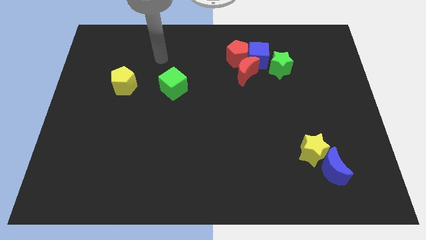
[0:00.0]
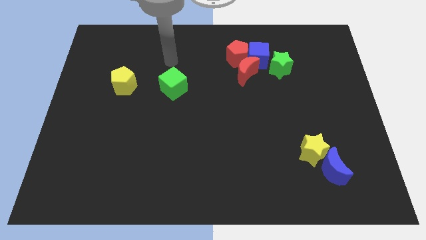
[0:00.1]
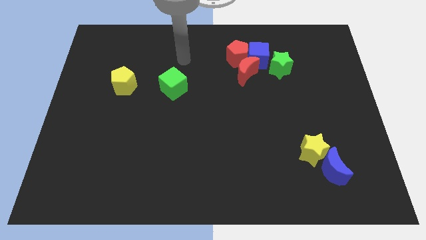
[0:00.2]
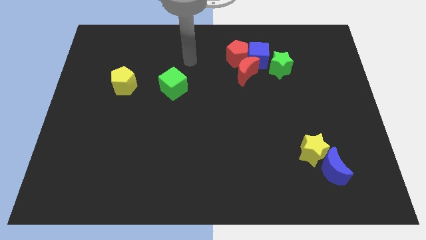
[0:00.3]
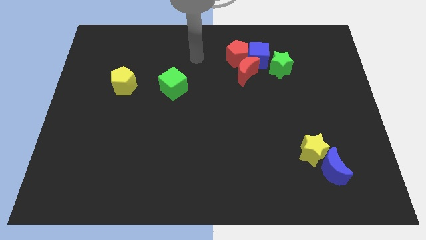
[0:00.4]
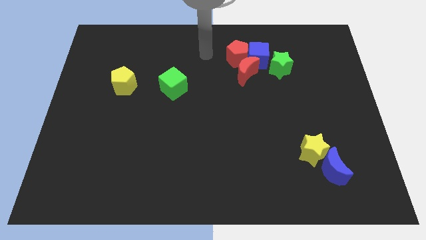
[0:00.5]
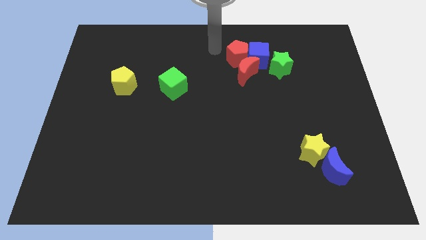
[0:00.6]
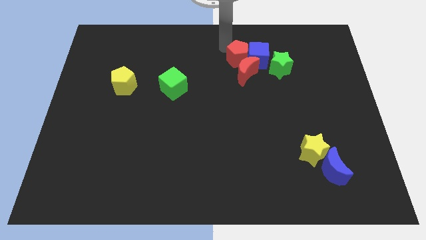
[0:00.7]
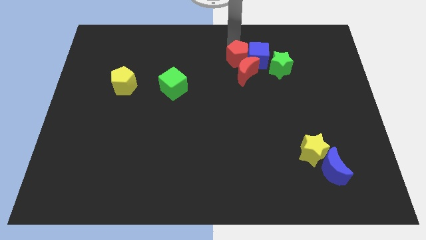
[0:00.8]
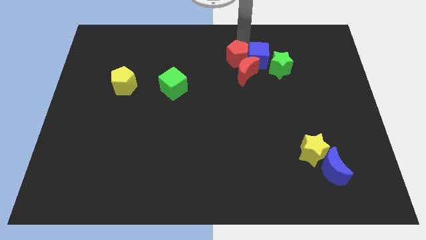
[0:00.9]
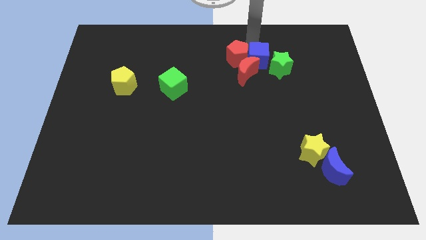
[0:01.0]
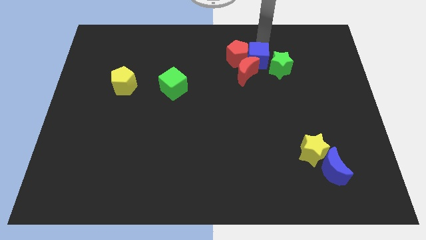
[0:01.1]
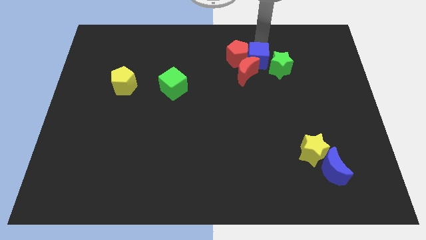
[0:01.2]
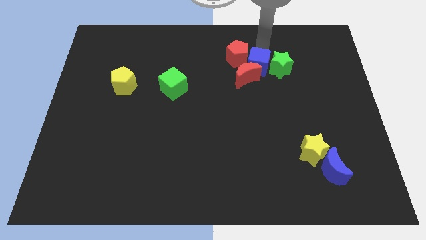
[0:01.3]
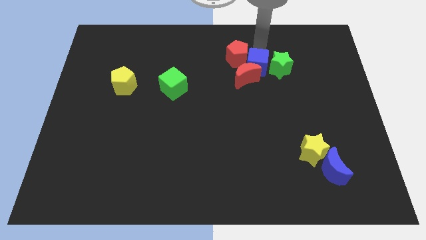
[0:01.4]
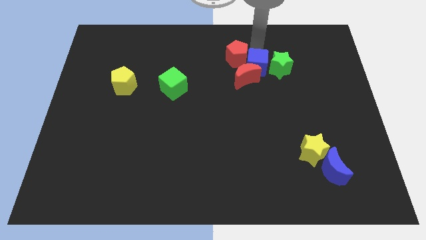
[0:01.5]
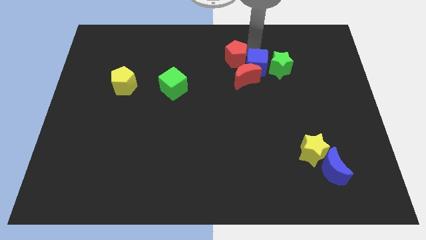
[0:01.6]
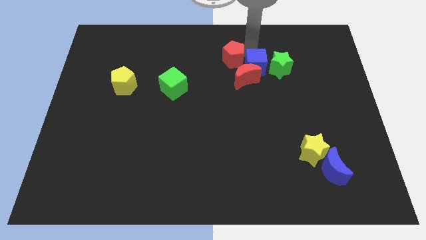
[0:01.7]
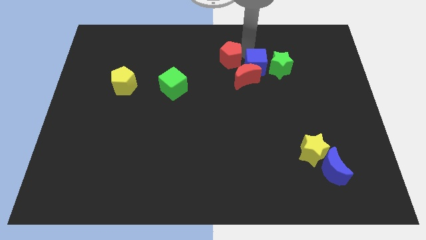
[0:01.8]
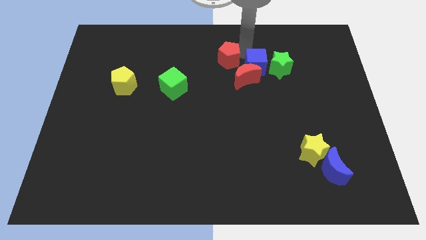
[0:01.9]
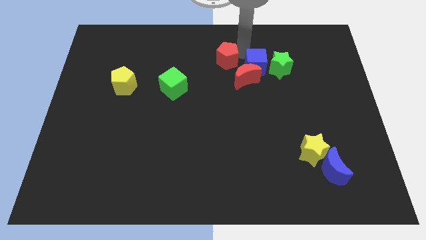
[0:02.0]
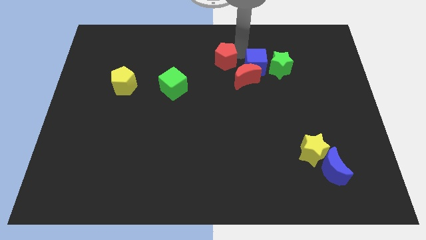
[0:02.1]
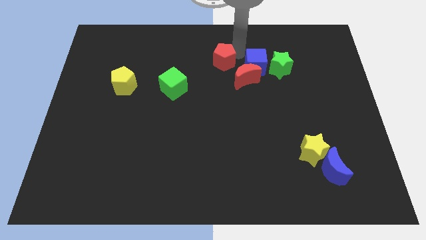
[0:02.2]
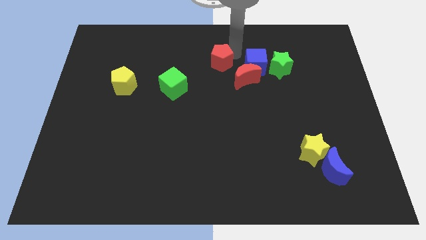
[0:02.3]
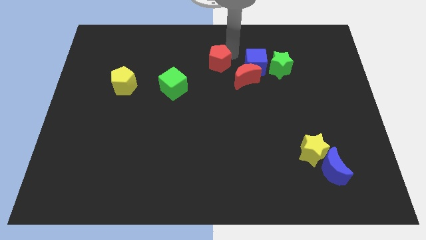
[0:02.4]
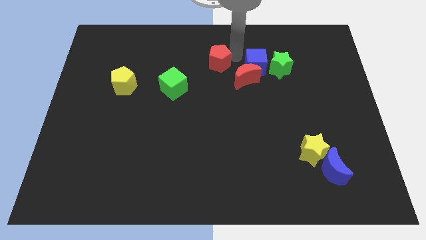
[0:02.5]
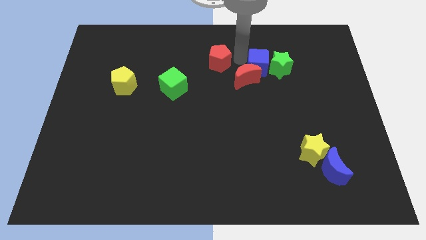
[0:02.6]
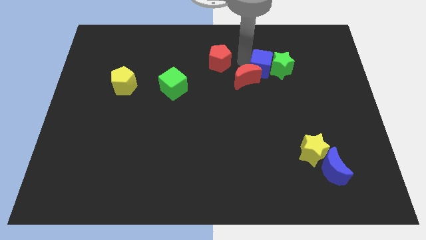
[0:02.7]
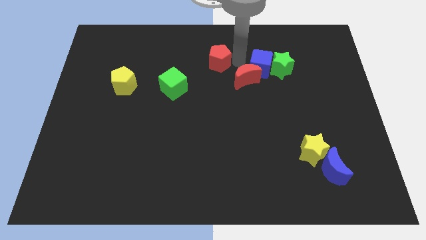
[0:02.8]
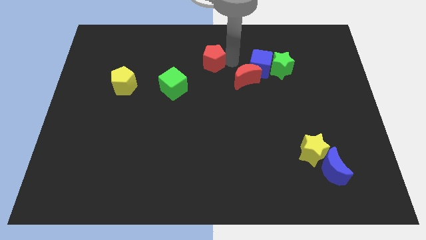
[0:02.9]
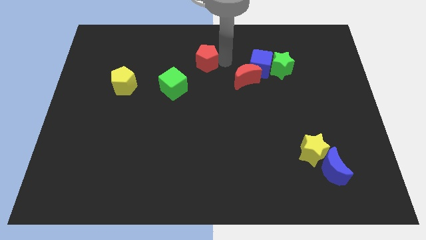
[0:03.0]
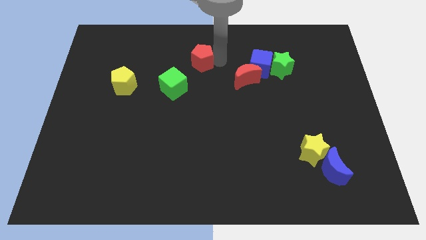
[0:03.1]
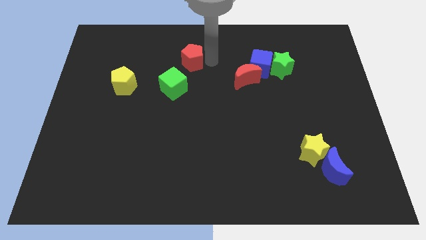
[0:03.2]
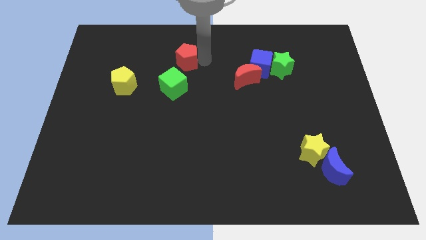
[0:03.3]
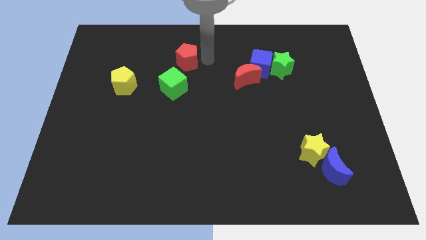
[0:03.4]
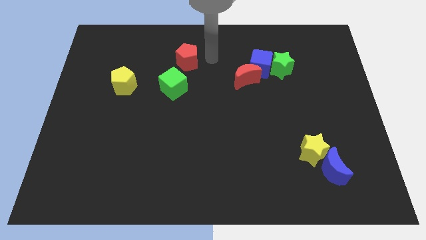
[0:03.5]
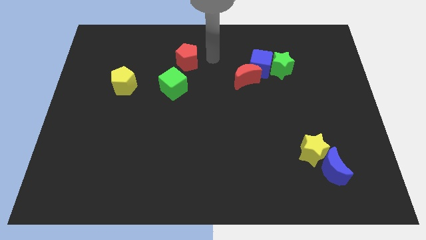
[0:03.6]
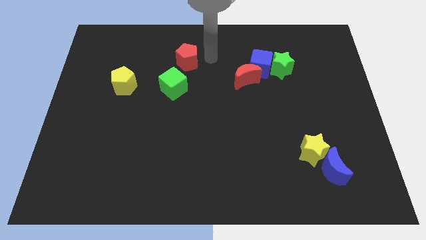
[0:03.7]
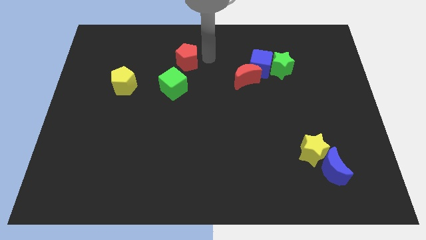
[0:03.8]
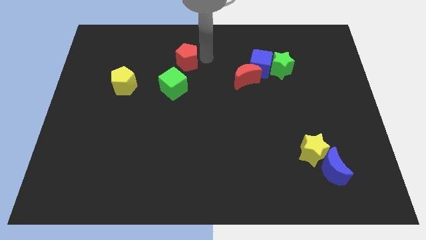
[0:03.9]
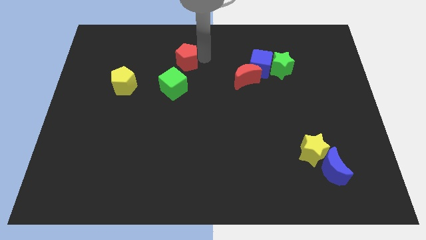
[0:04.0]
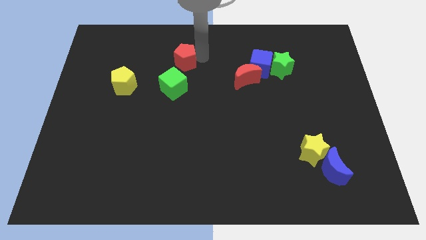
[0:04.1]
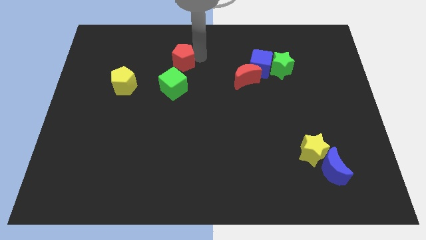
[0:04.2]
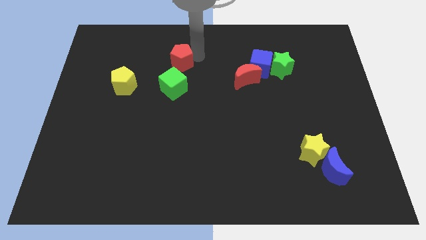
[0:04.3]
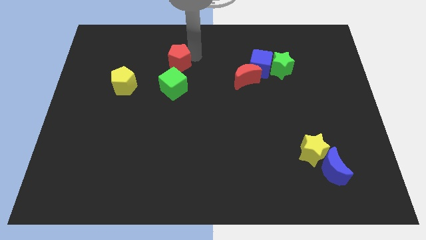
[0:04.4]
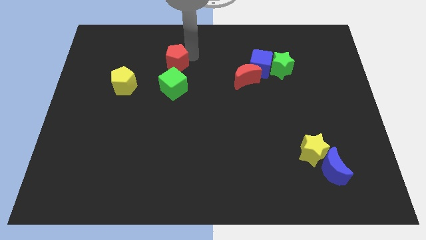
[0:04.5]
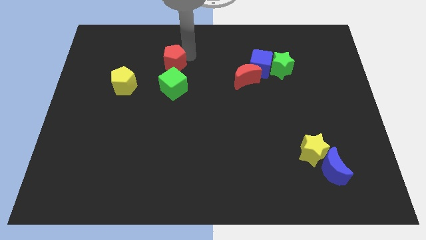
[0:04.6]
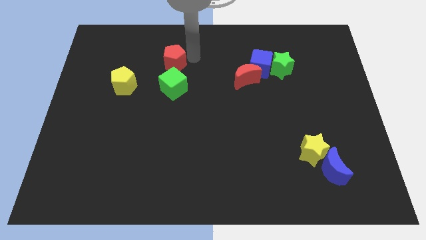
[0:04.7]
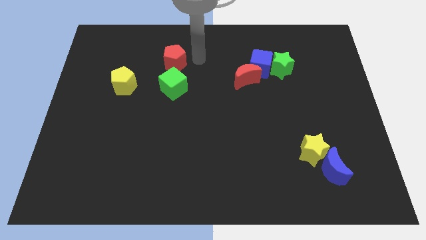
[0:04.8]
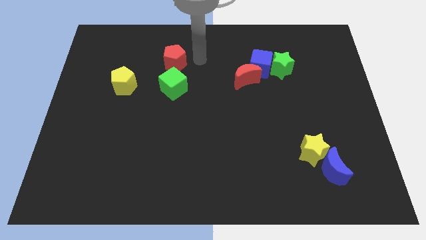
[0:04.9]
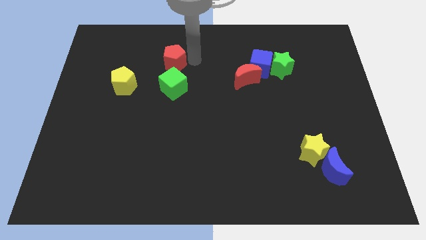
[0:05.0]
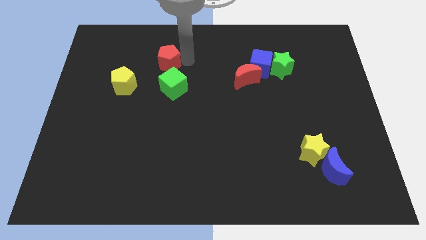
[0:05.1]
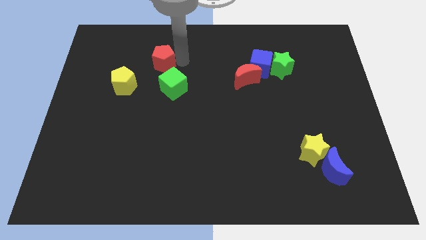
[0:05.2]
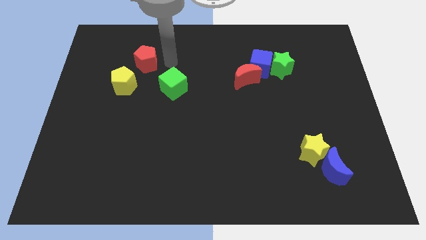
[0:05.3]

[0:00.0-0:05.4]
push the red pentagon to the left

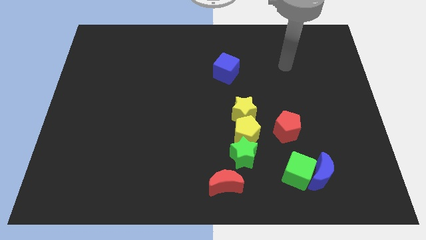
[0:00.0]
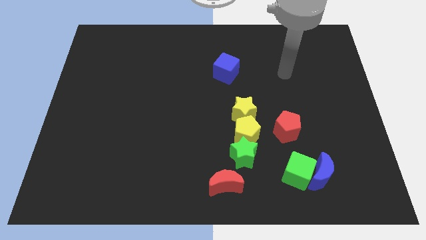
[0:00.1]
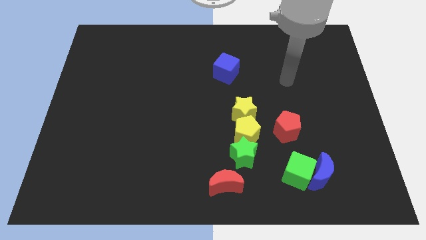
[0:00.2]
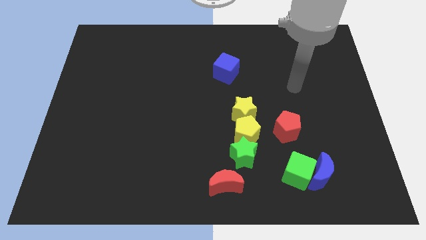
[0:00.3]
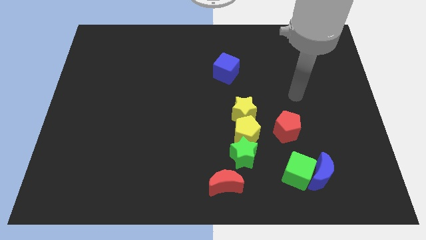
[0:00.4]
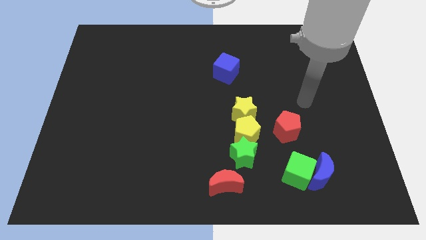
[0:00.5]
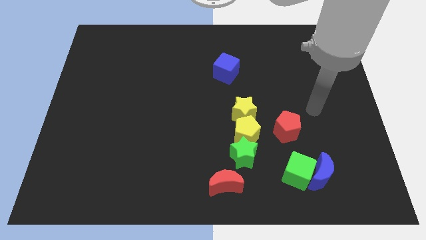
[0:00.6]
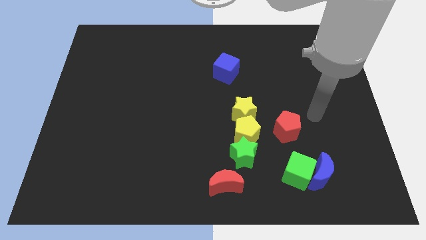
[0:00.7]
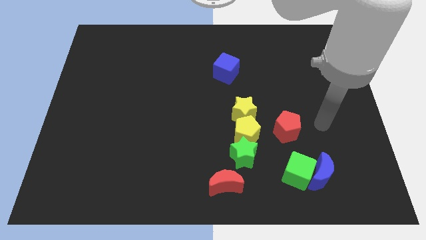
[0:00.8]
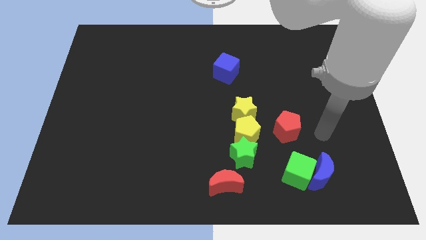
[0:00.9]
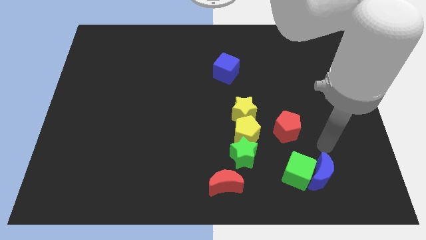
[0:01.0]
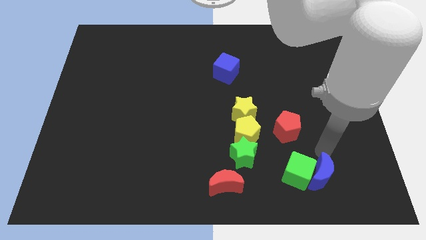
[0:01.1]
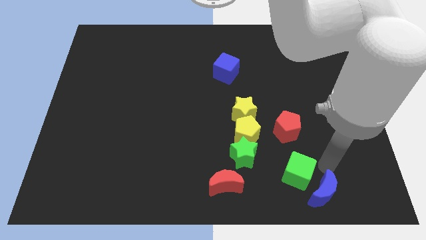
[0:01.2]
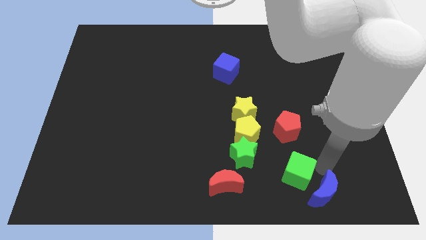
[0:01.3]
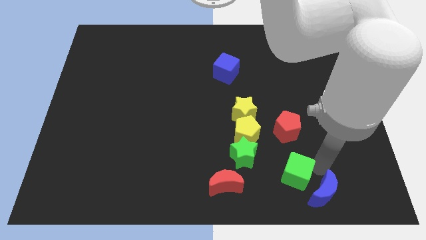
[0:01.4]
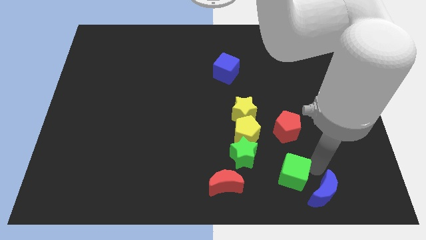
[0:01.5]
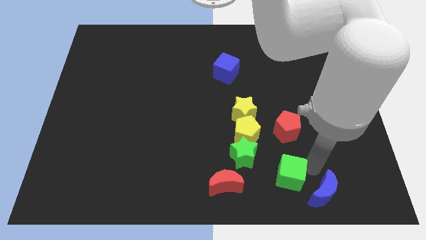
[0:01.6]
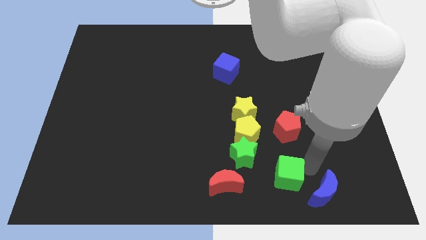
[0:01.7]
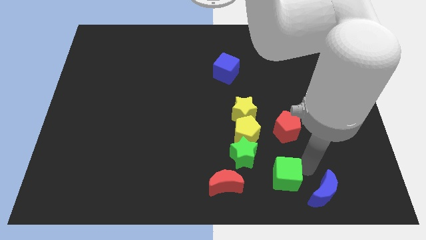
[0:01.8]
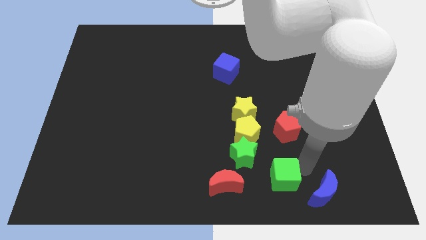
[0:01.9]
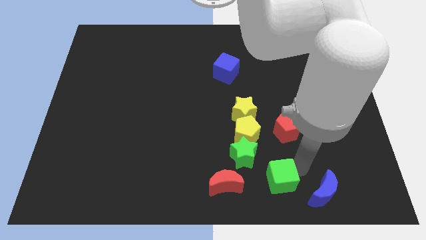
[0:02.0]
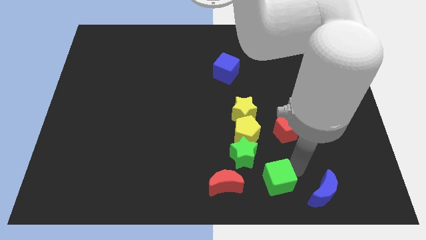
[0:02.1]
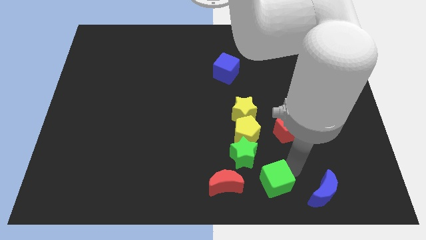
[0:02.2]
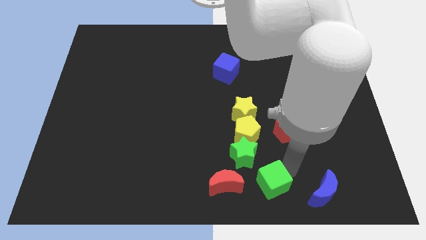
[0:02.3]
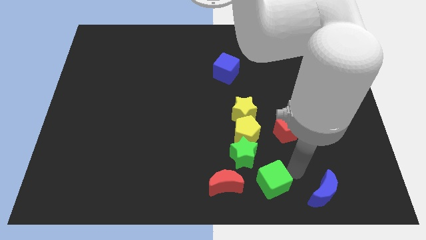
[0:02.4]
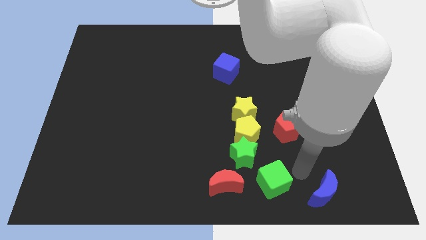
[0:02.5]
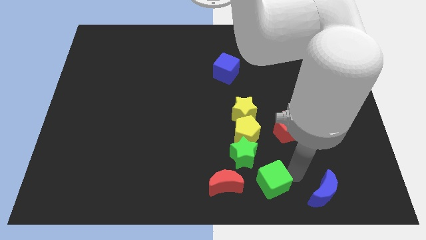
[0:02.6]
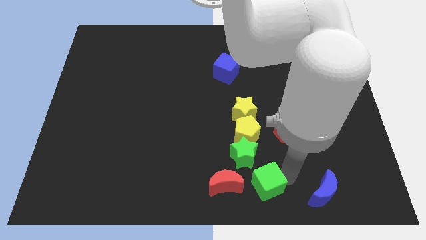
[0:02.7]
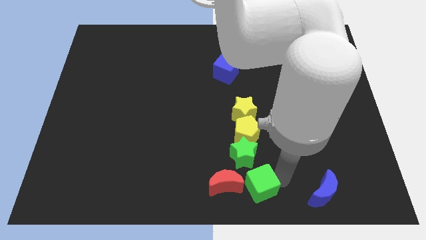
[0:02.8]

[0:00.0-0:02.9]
move the green cube to the left somewhat
